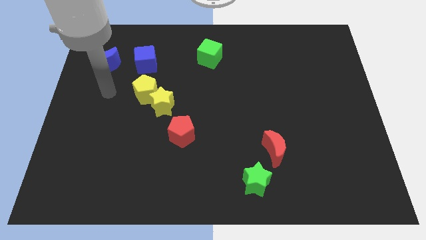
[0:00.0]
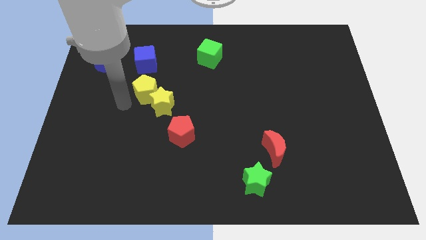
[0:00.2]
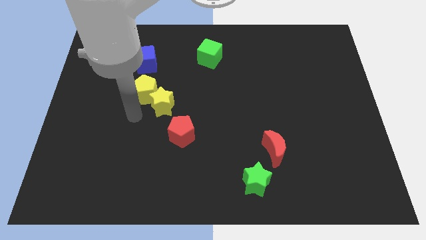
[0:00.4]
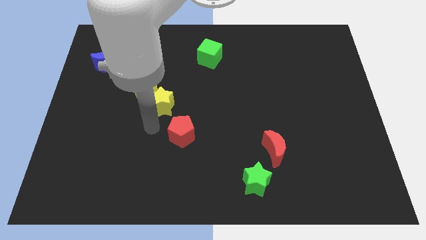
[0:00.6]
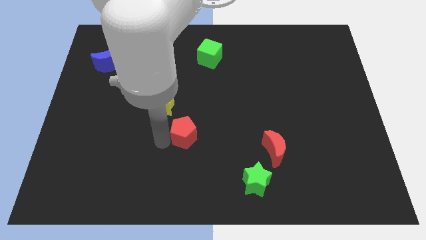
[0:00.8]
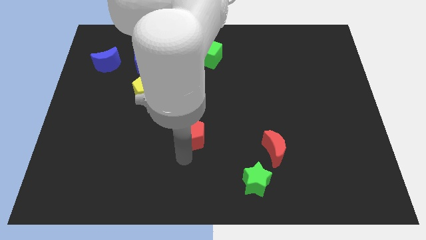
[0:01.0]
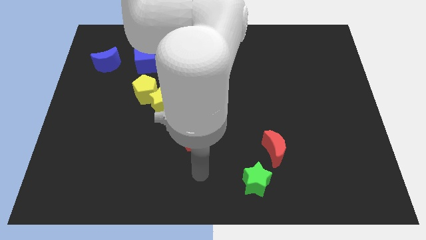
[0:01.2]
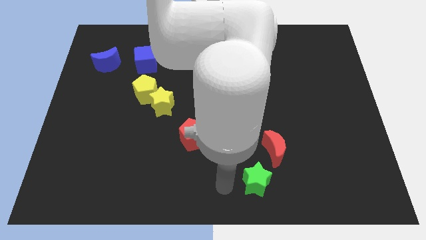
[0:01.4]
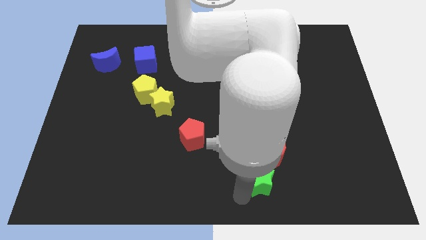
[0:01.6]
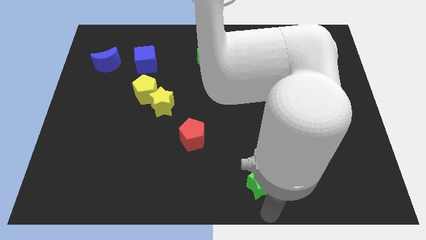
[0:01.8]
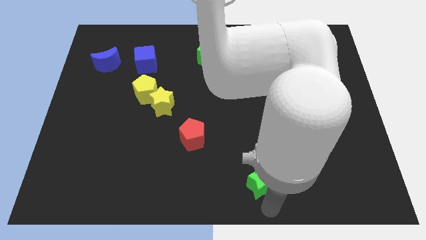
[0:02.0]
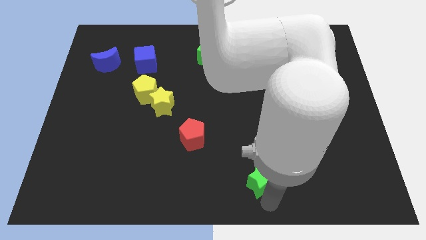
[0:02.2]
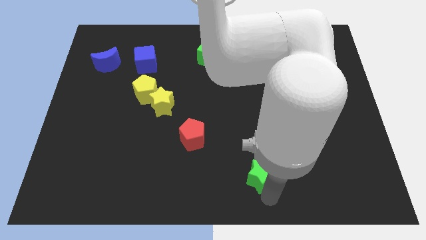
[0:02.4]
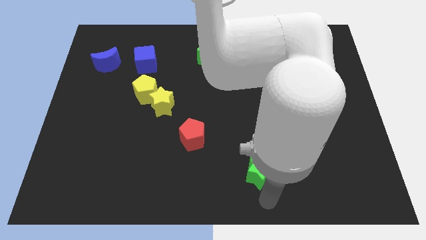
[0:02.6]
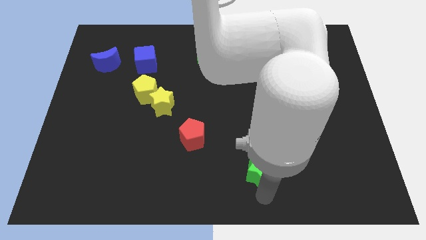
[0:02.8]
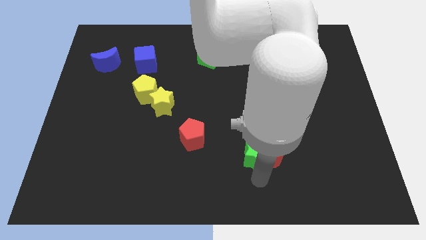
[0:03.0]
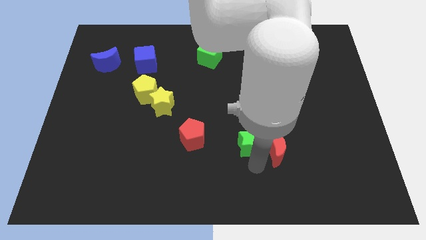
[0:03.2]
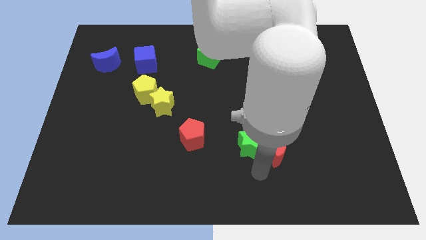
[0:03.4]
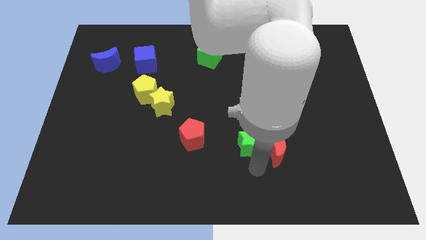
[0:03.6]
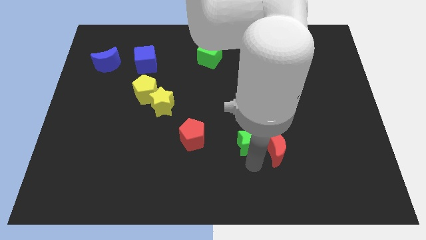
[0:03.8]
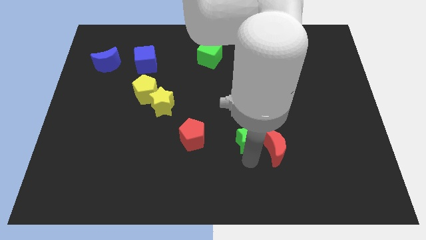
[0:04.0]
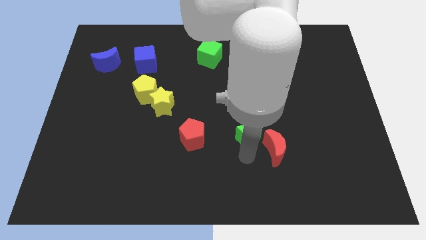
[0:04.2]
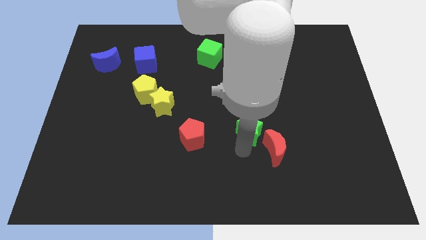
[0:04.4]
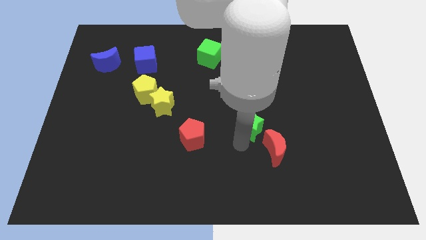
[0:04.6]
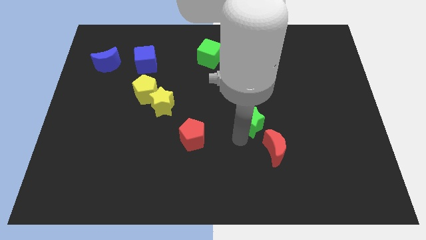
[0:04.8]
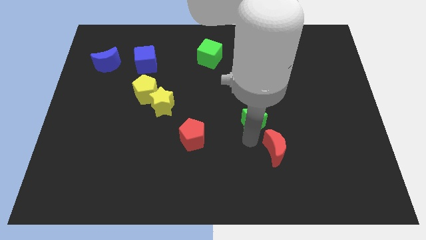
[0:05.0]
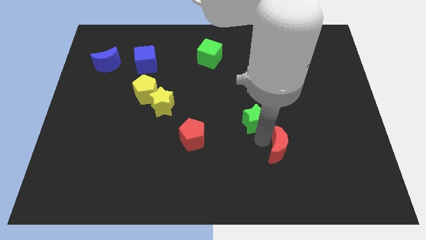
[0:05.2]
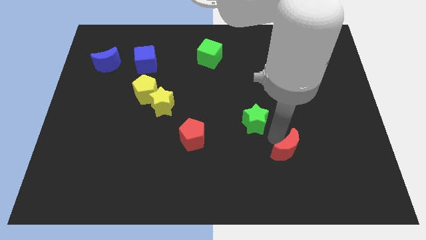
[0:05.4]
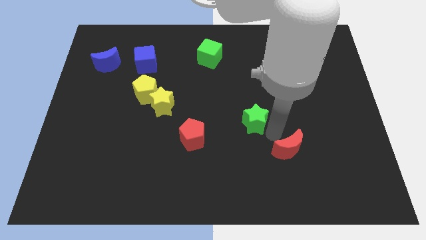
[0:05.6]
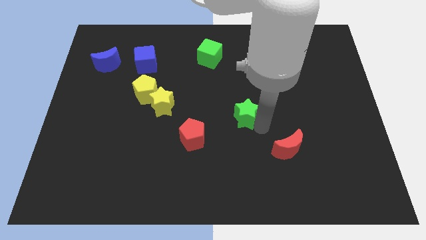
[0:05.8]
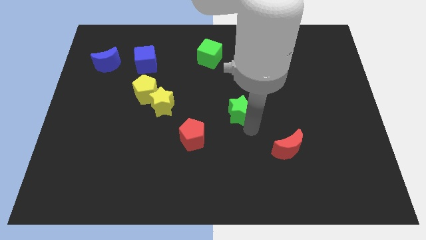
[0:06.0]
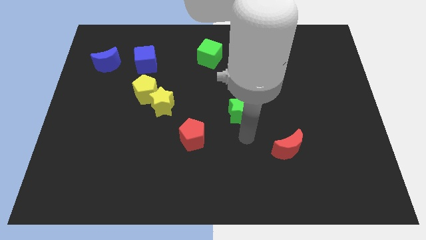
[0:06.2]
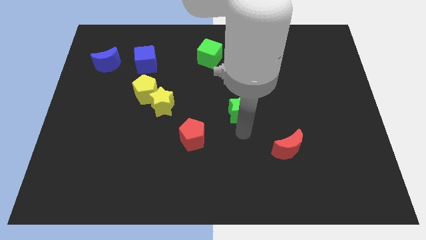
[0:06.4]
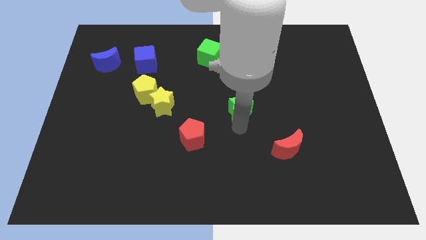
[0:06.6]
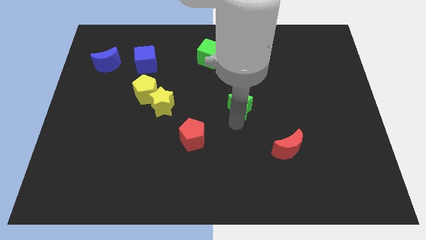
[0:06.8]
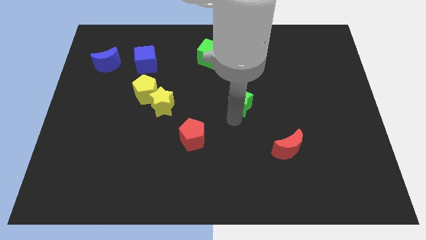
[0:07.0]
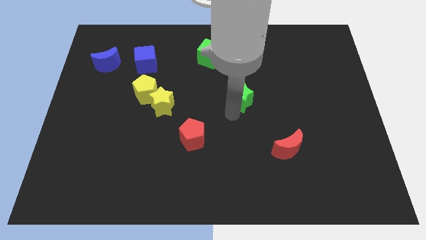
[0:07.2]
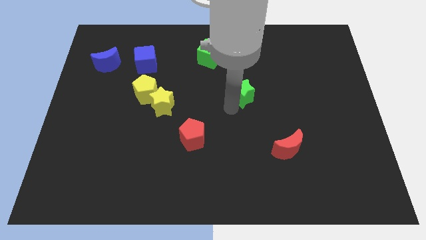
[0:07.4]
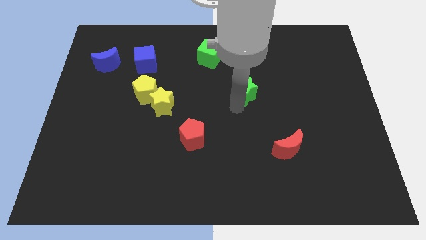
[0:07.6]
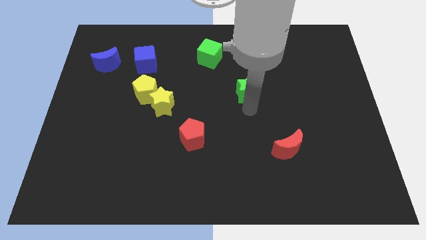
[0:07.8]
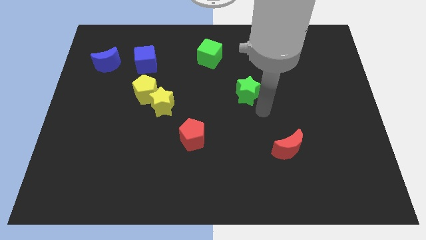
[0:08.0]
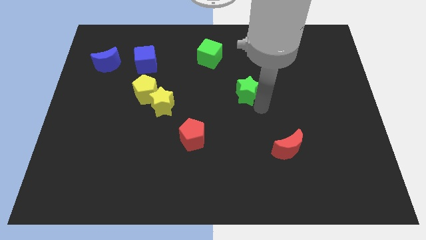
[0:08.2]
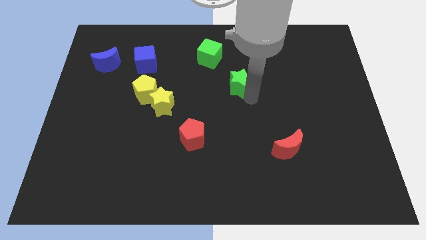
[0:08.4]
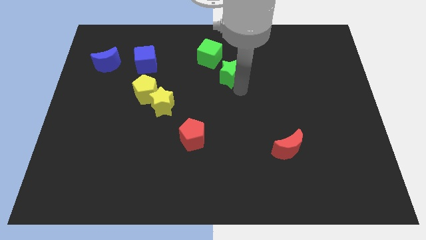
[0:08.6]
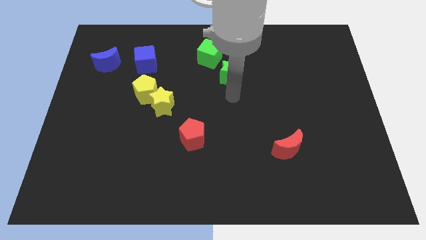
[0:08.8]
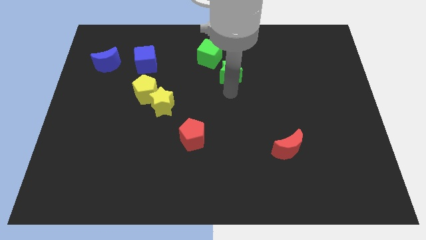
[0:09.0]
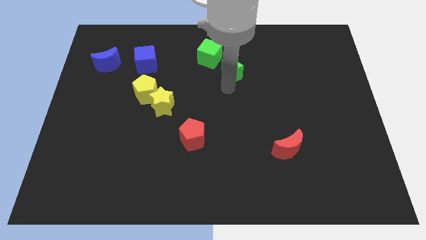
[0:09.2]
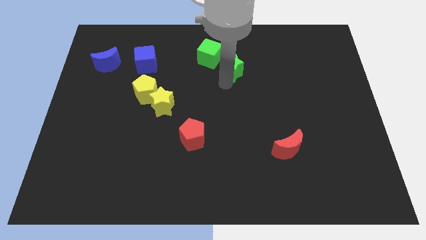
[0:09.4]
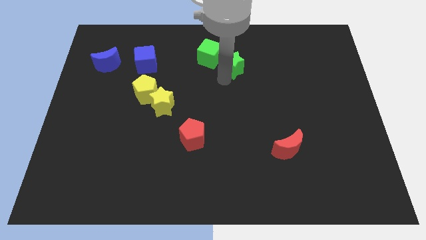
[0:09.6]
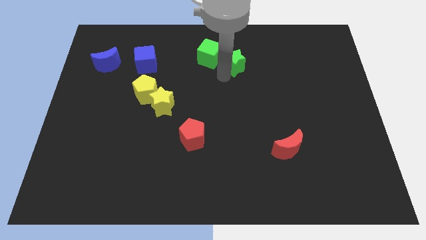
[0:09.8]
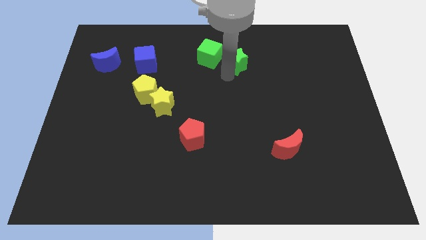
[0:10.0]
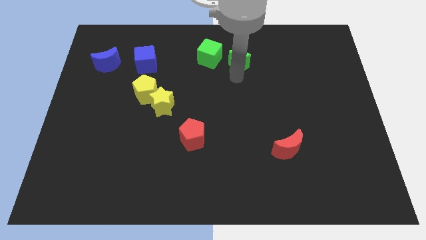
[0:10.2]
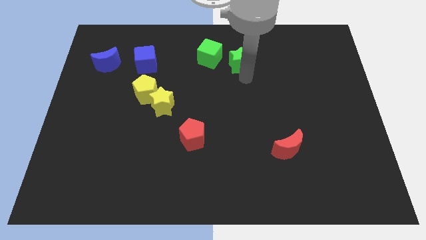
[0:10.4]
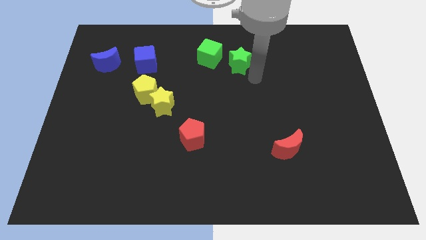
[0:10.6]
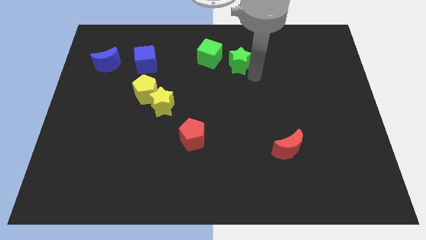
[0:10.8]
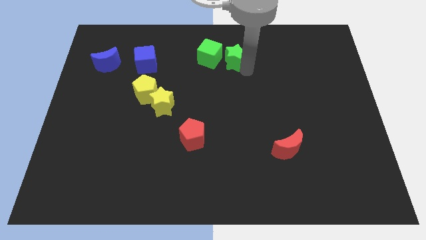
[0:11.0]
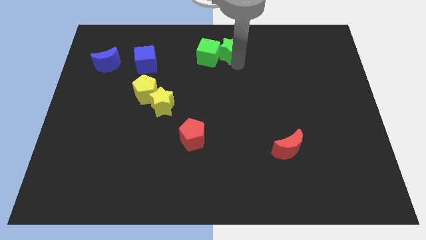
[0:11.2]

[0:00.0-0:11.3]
put the green star to the top side
